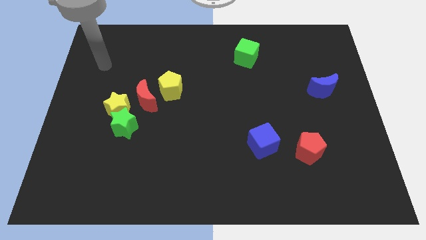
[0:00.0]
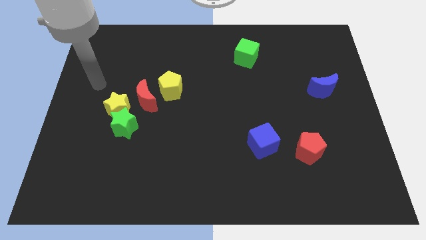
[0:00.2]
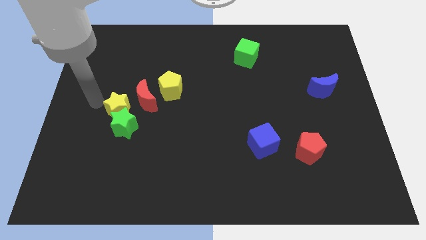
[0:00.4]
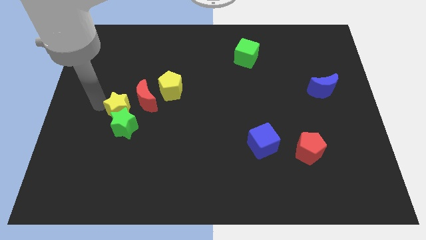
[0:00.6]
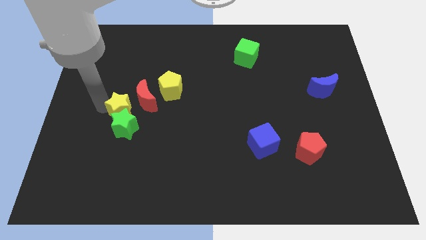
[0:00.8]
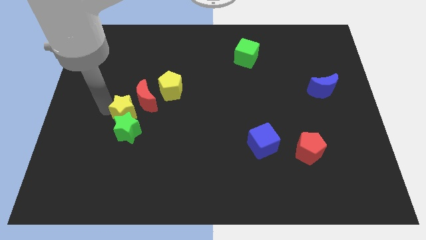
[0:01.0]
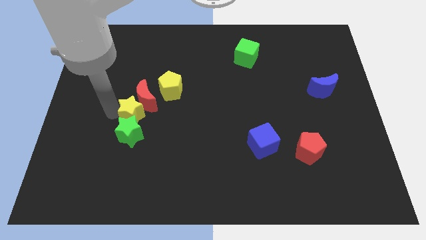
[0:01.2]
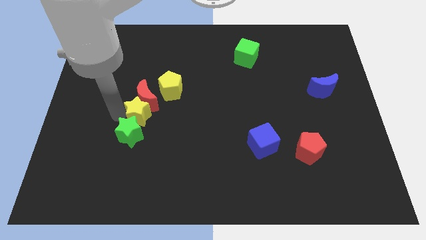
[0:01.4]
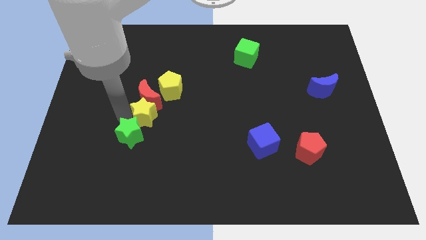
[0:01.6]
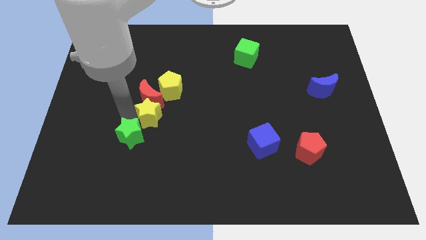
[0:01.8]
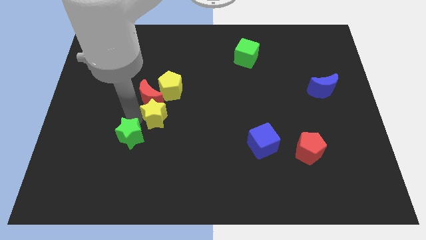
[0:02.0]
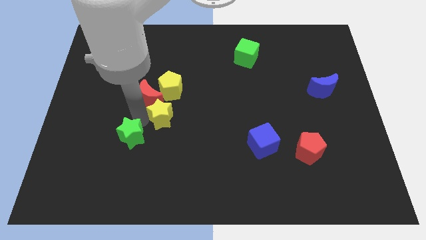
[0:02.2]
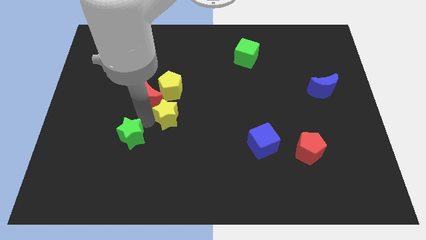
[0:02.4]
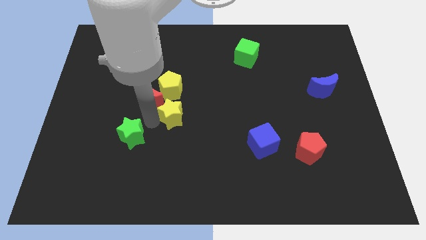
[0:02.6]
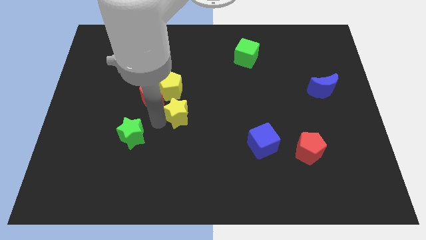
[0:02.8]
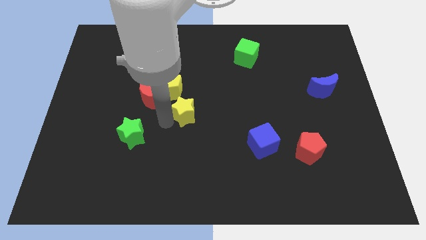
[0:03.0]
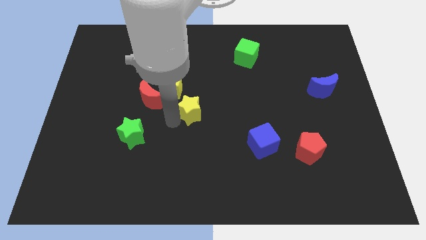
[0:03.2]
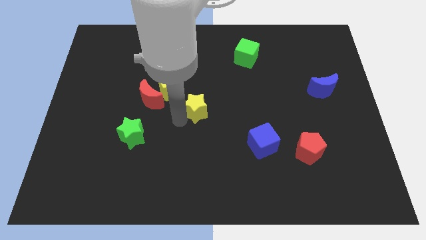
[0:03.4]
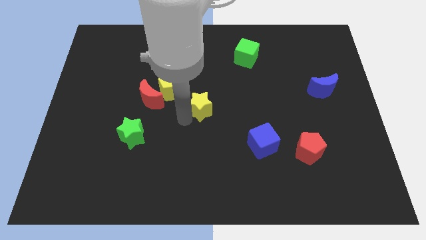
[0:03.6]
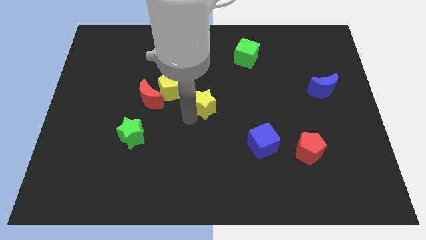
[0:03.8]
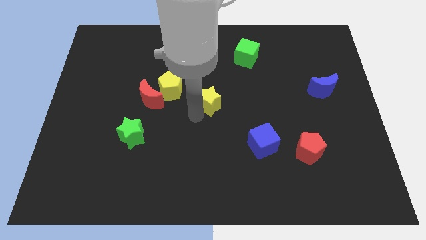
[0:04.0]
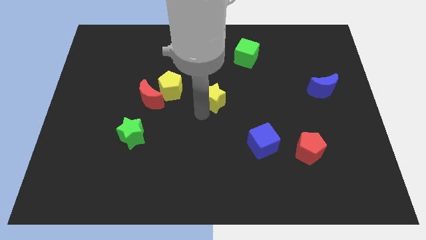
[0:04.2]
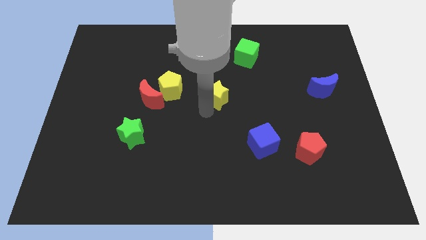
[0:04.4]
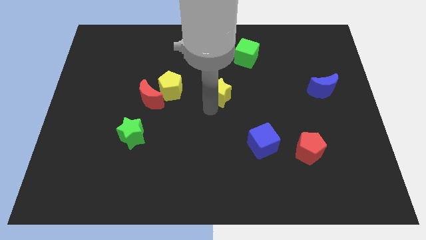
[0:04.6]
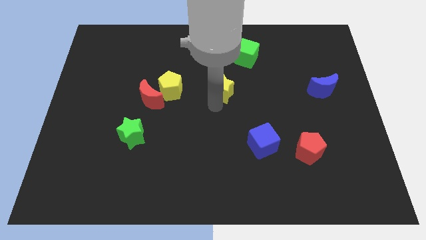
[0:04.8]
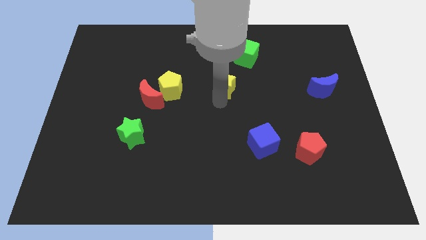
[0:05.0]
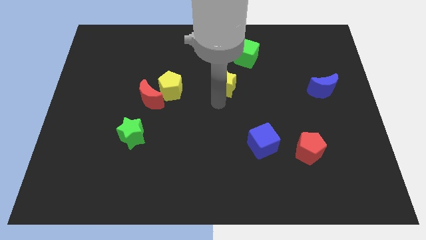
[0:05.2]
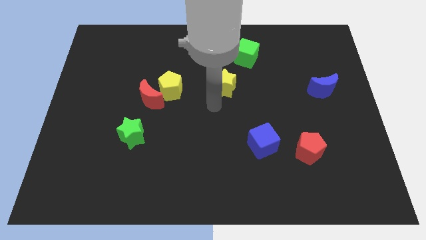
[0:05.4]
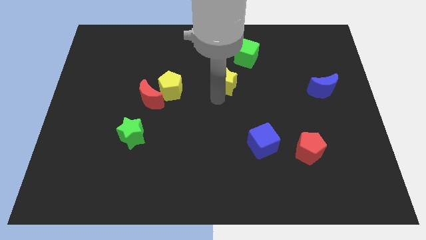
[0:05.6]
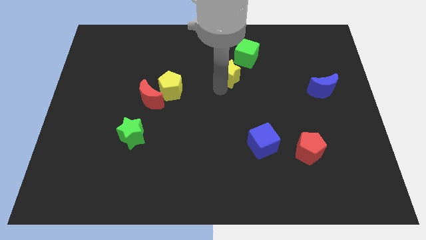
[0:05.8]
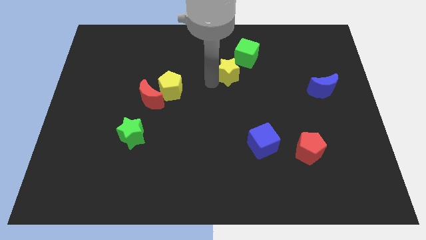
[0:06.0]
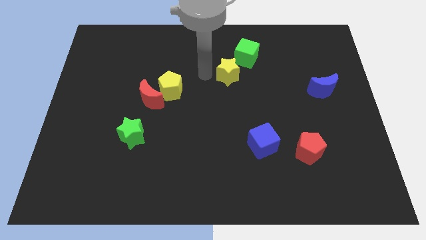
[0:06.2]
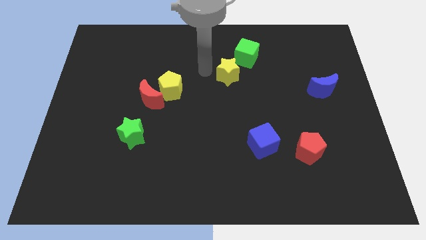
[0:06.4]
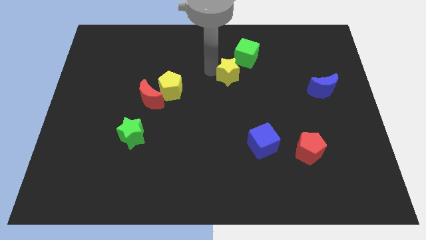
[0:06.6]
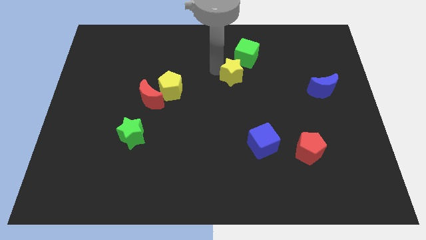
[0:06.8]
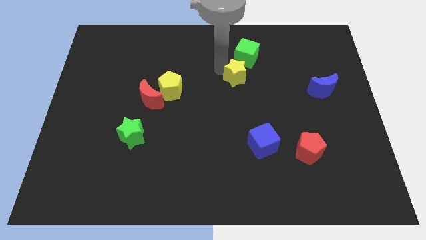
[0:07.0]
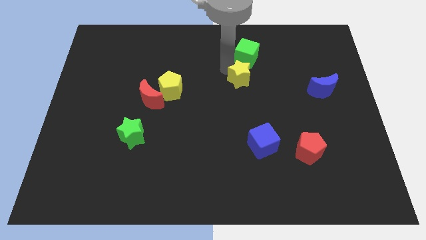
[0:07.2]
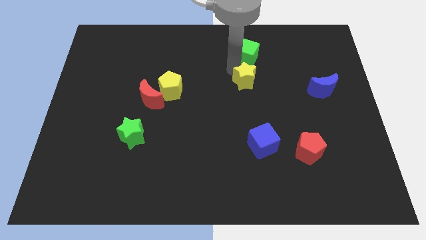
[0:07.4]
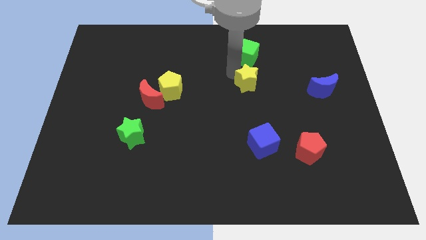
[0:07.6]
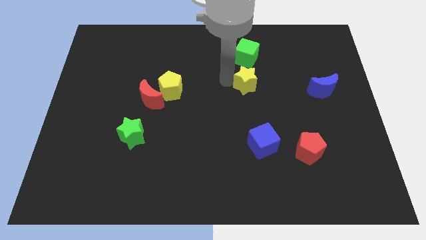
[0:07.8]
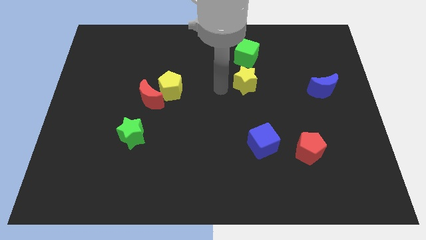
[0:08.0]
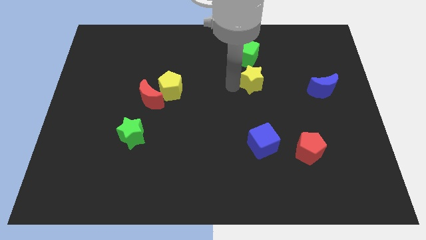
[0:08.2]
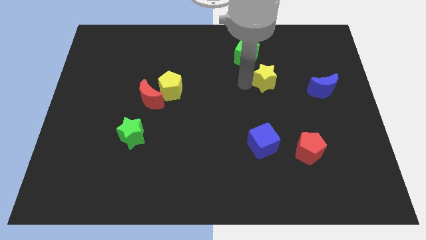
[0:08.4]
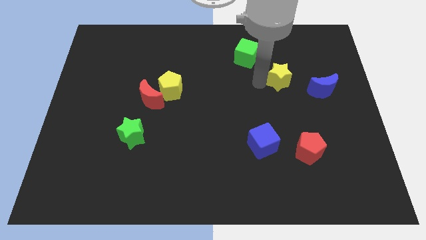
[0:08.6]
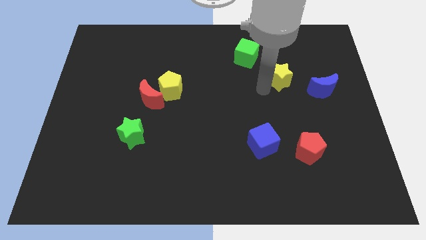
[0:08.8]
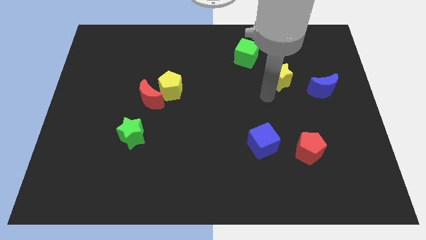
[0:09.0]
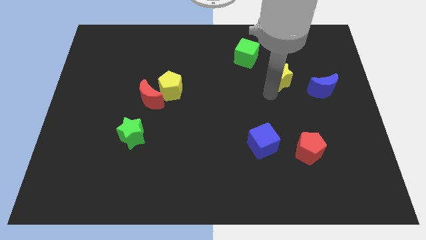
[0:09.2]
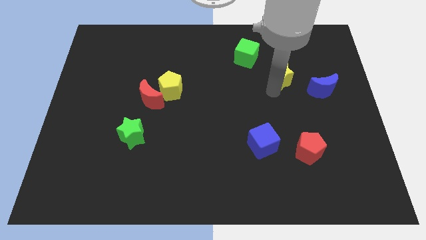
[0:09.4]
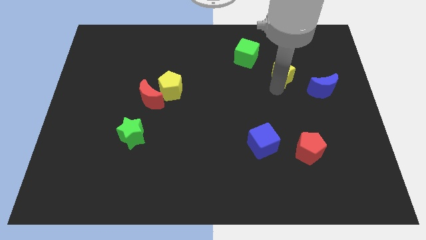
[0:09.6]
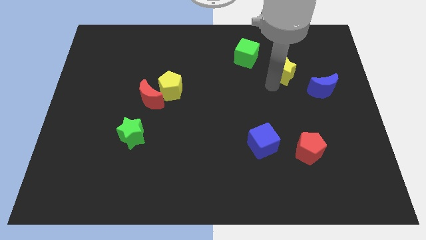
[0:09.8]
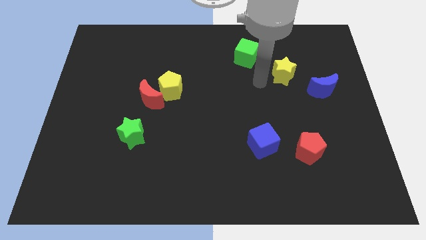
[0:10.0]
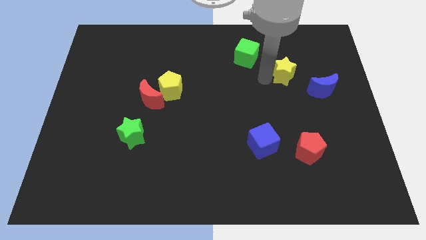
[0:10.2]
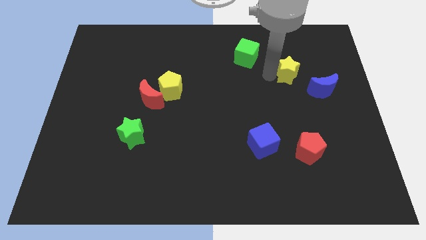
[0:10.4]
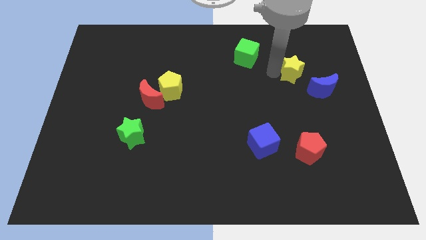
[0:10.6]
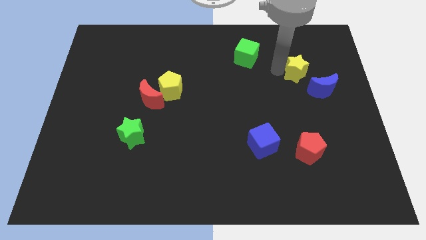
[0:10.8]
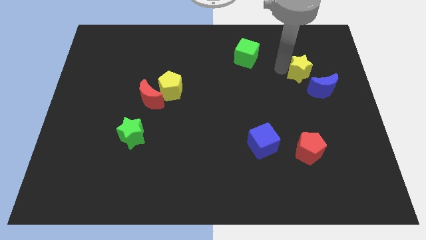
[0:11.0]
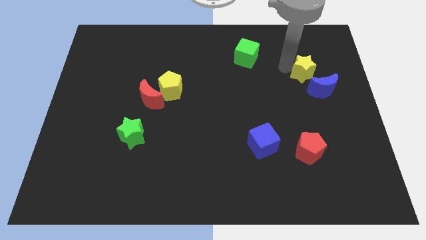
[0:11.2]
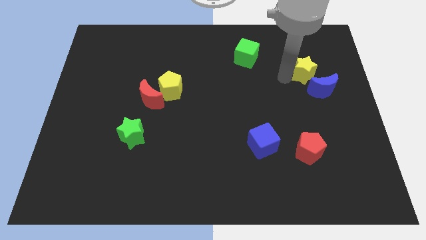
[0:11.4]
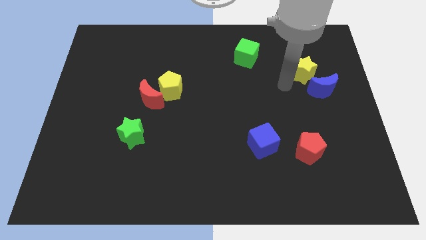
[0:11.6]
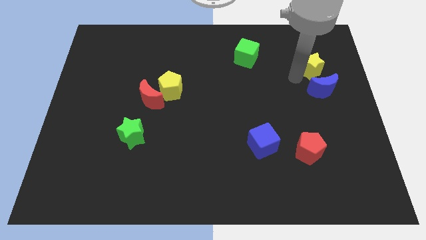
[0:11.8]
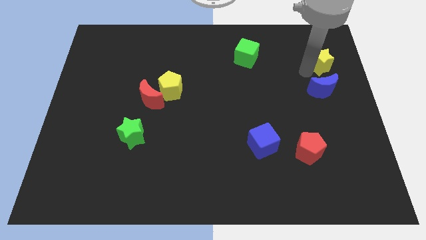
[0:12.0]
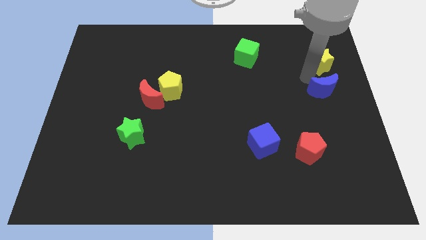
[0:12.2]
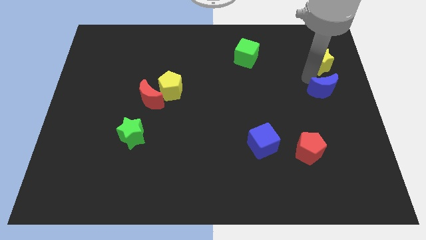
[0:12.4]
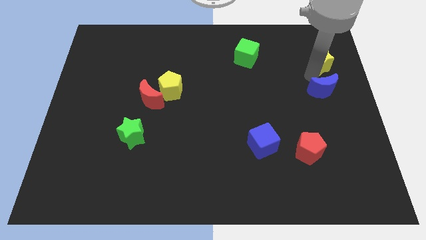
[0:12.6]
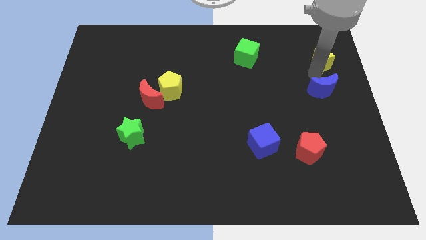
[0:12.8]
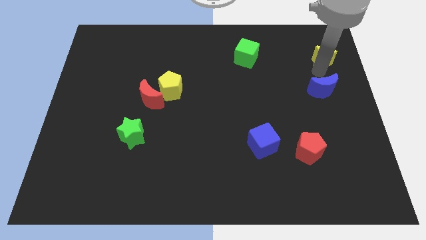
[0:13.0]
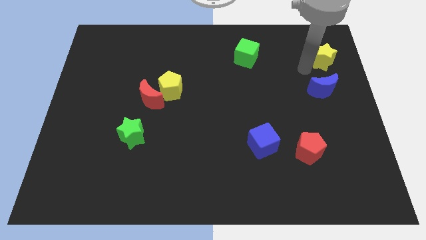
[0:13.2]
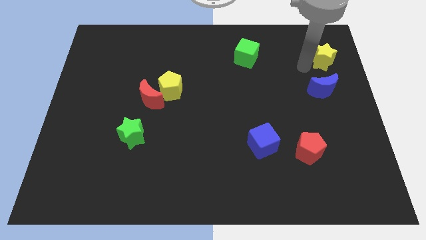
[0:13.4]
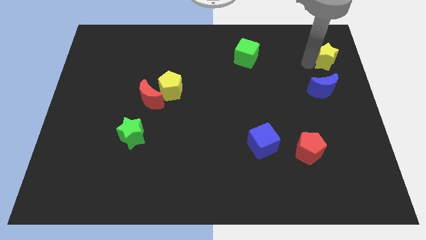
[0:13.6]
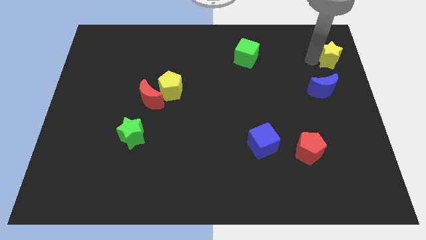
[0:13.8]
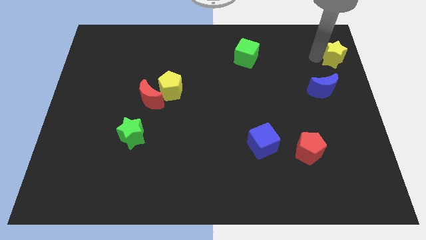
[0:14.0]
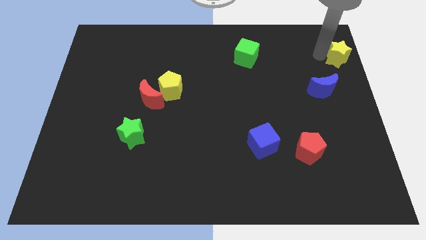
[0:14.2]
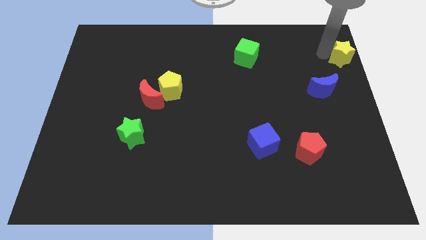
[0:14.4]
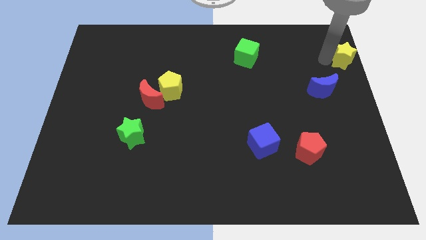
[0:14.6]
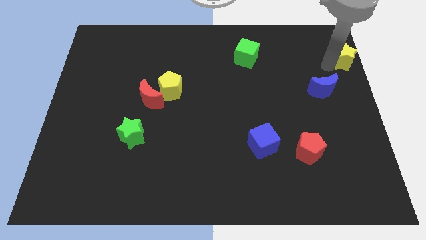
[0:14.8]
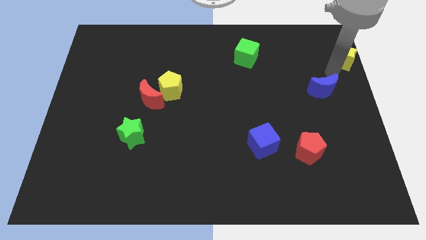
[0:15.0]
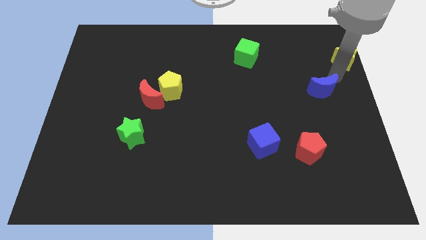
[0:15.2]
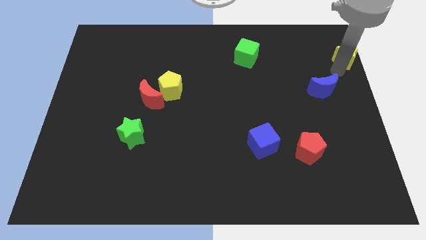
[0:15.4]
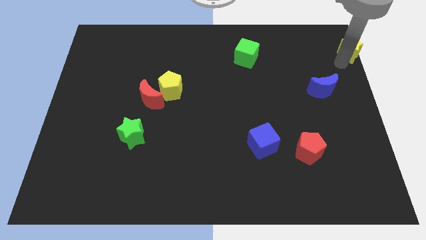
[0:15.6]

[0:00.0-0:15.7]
move the yellow star to the top right
